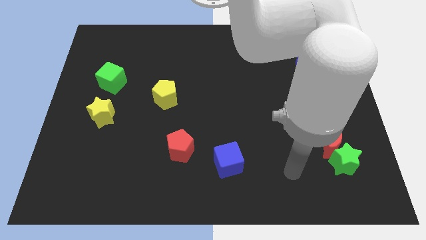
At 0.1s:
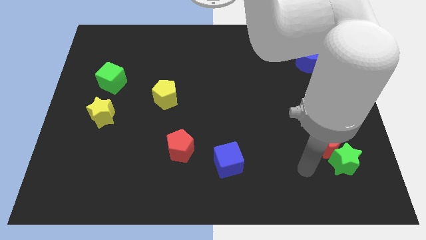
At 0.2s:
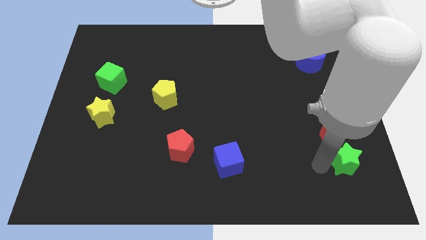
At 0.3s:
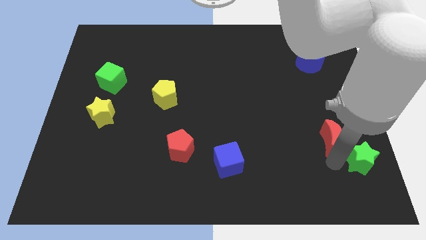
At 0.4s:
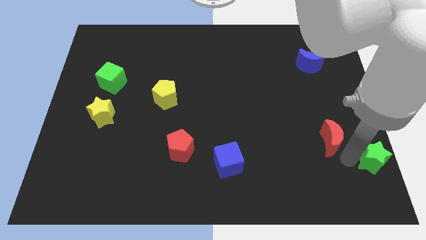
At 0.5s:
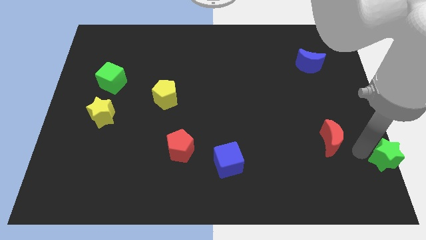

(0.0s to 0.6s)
pull the red moon apart from the green star

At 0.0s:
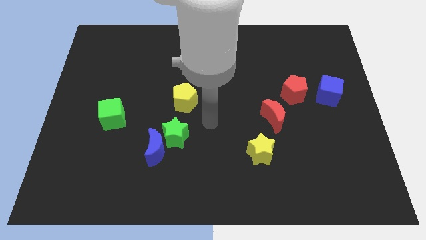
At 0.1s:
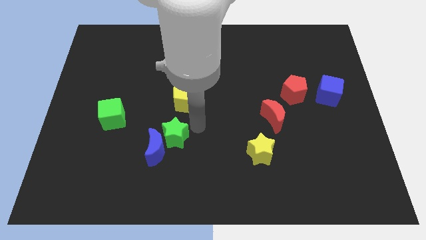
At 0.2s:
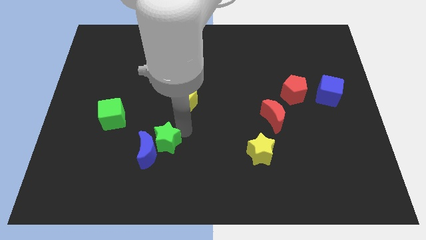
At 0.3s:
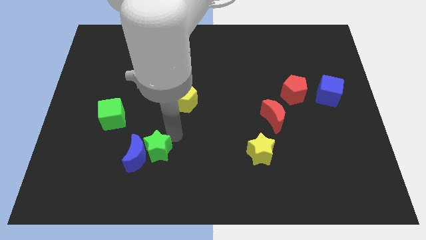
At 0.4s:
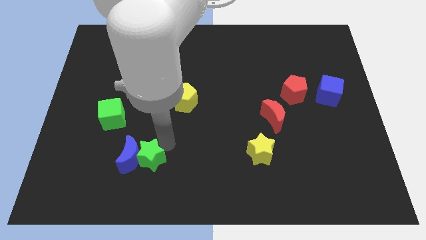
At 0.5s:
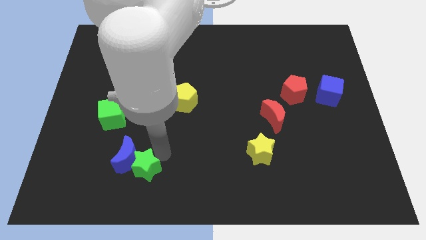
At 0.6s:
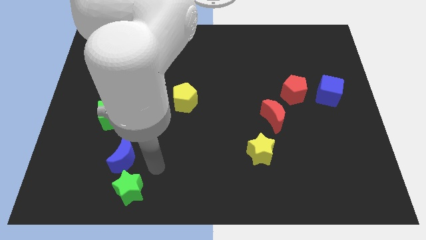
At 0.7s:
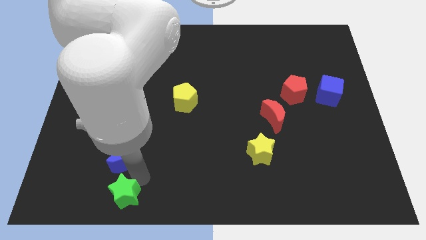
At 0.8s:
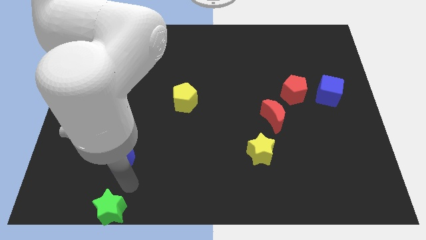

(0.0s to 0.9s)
move the blue moon away from the green star

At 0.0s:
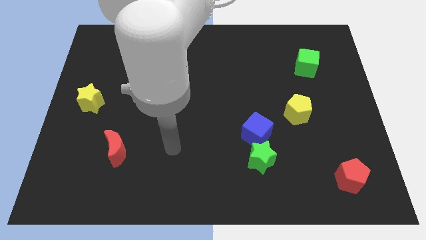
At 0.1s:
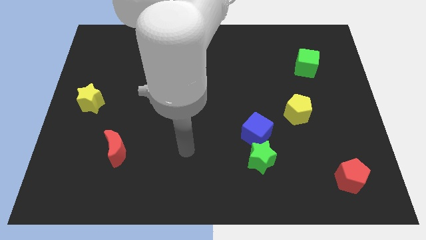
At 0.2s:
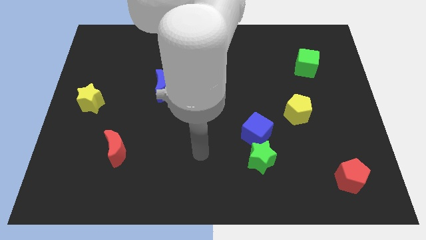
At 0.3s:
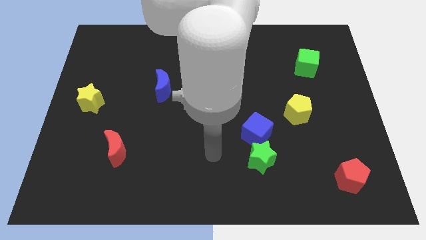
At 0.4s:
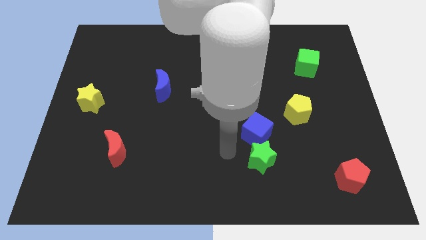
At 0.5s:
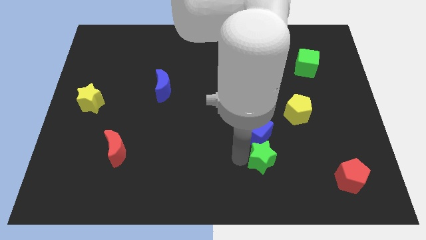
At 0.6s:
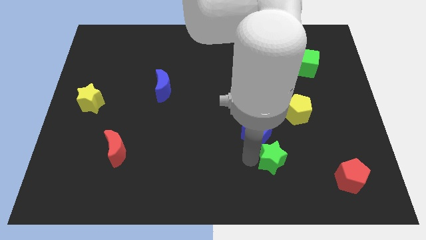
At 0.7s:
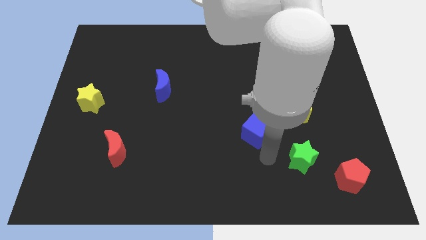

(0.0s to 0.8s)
pull the blue cube apart from the green star

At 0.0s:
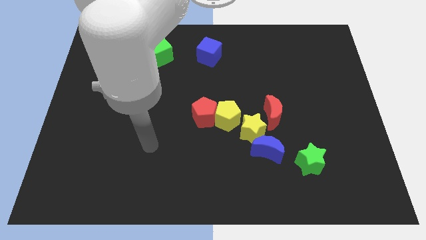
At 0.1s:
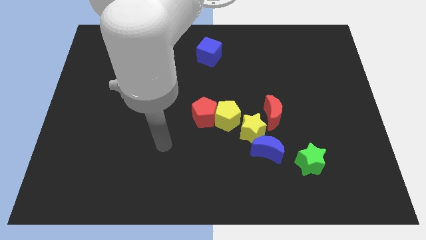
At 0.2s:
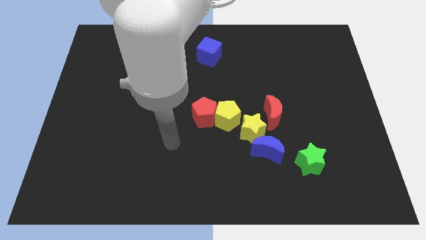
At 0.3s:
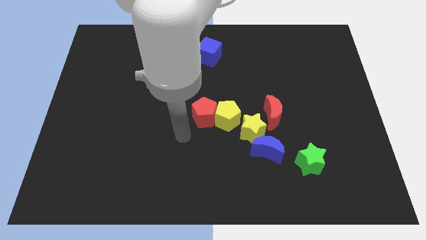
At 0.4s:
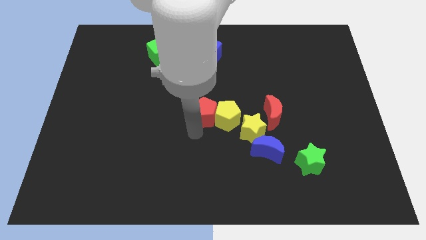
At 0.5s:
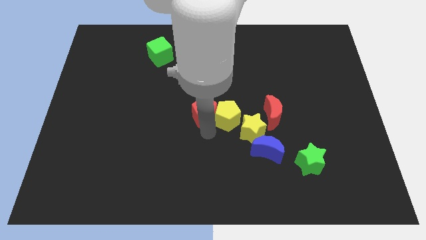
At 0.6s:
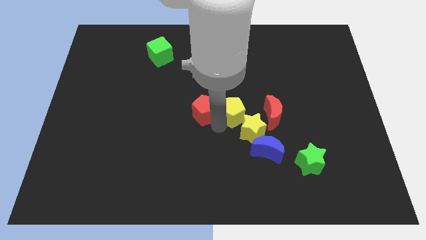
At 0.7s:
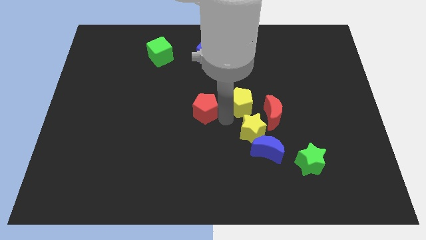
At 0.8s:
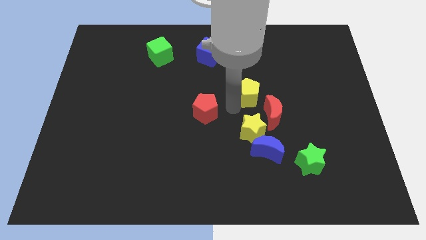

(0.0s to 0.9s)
separate the red pentagon from the yellow pentagon

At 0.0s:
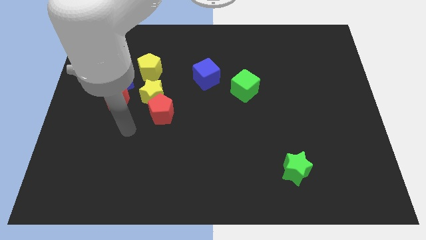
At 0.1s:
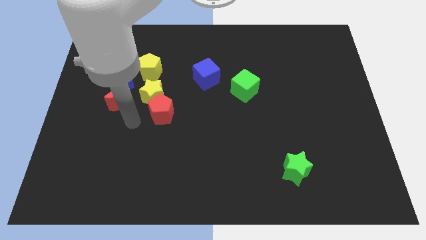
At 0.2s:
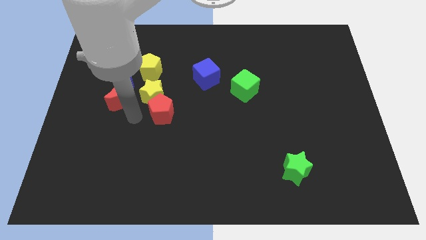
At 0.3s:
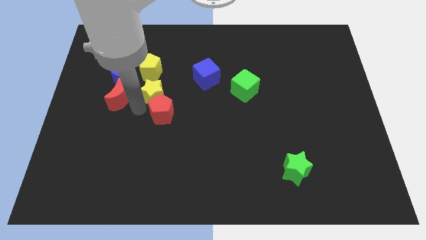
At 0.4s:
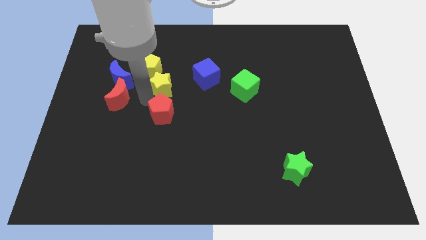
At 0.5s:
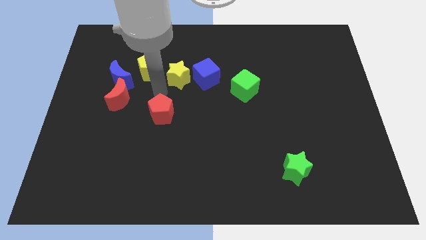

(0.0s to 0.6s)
move the red pentagon away from the yellow star

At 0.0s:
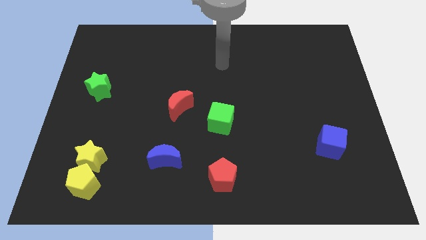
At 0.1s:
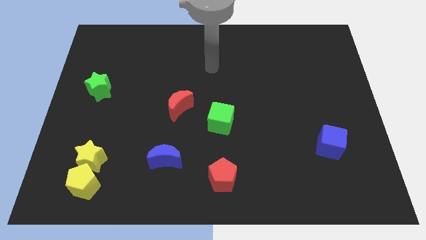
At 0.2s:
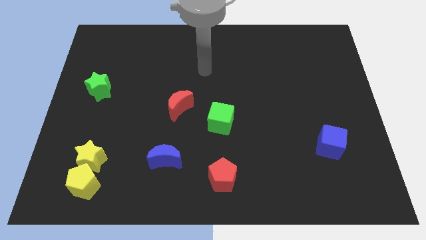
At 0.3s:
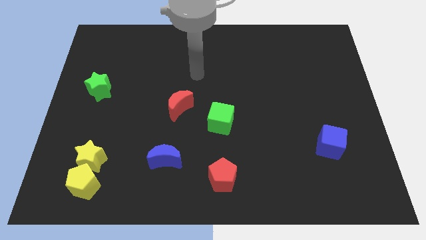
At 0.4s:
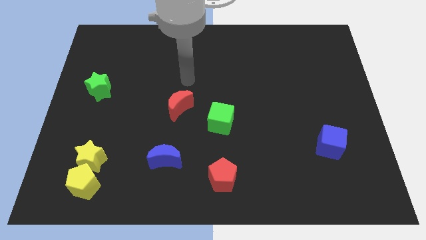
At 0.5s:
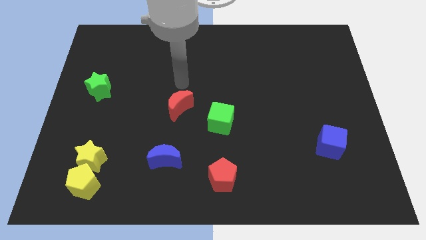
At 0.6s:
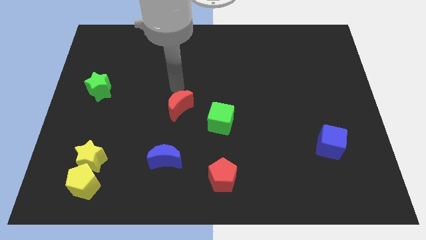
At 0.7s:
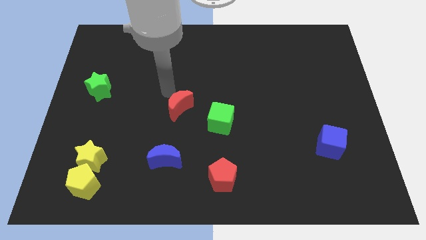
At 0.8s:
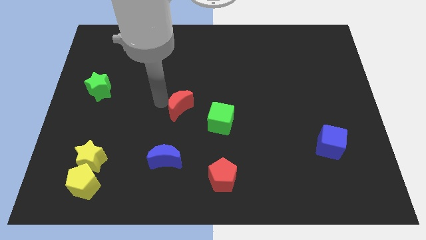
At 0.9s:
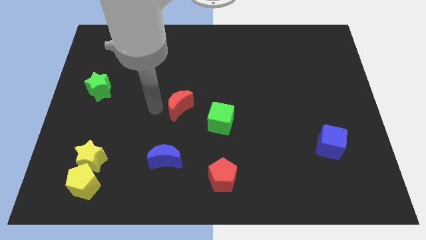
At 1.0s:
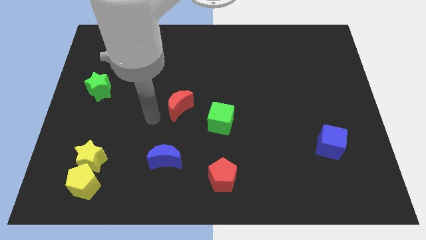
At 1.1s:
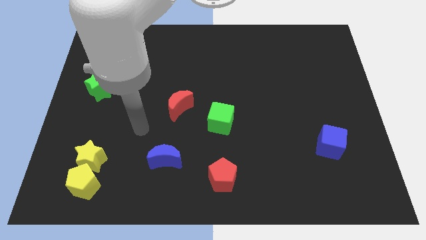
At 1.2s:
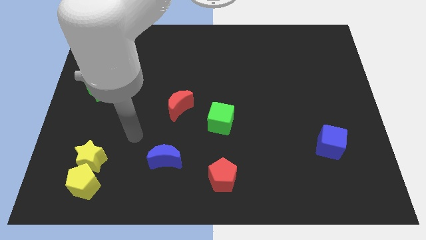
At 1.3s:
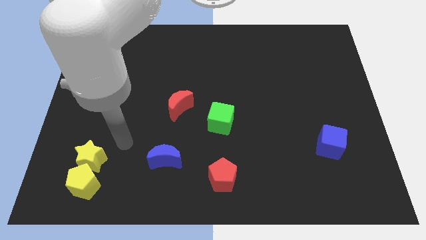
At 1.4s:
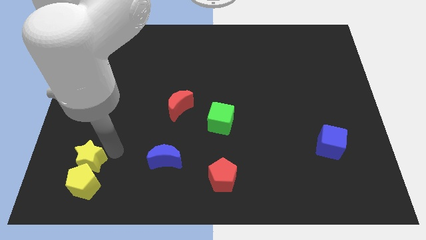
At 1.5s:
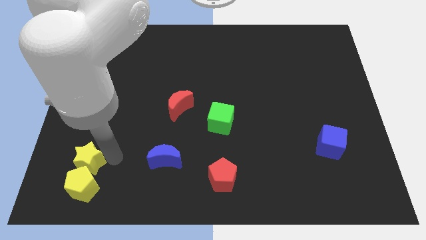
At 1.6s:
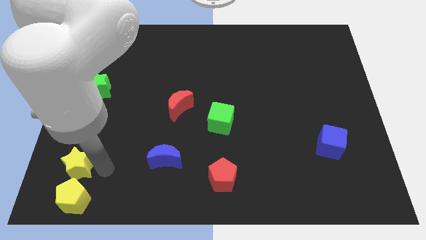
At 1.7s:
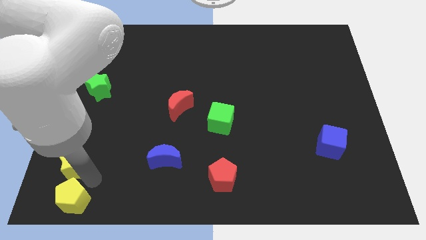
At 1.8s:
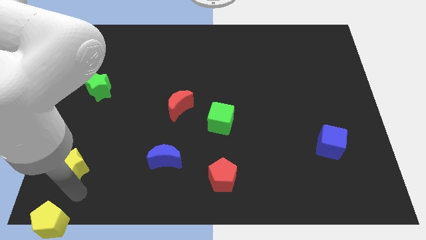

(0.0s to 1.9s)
separate the yellow star from the yellow pentagon

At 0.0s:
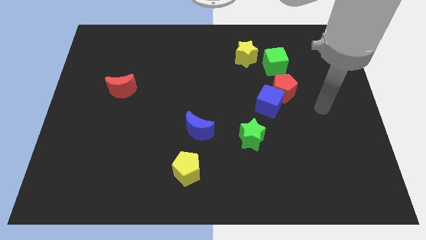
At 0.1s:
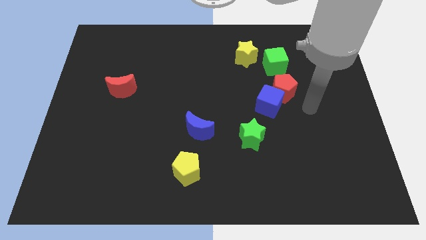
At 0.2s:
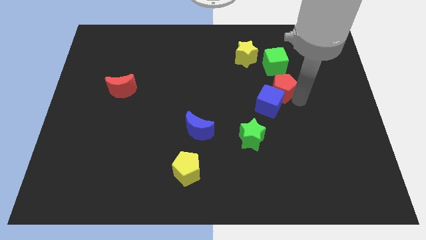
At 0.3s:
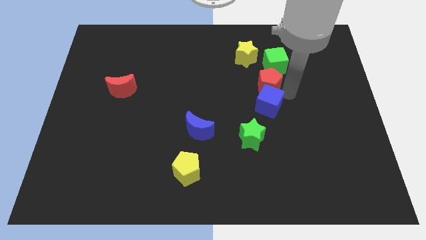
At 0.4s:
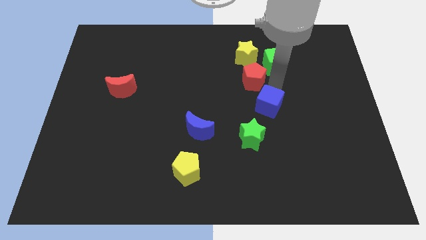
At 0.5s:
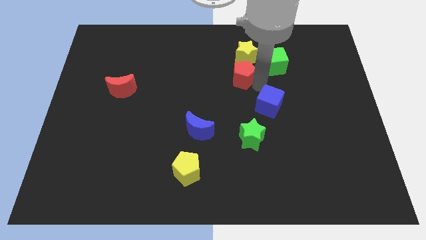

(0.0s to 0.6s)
separate the blue cube from the red pentagon

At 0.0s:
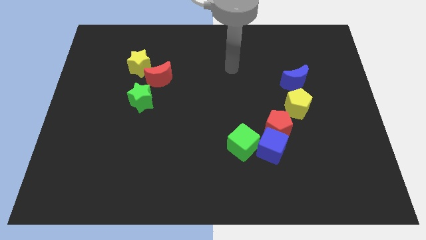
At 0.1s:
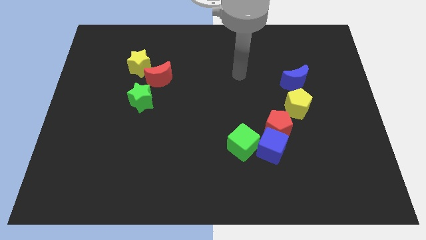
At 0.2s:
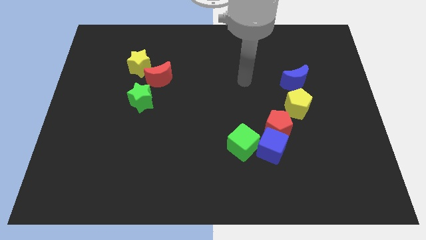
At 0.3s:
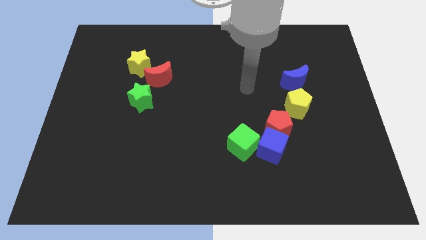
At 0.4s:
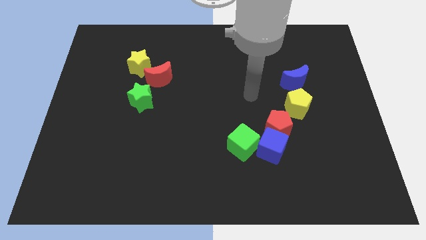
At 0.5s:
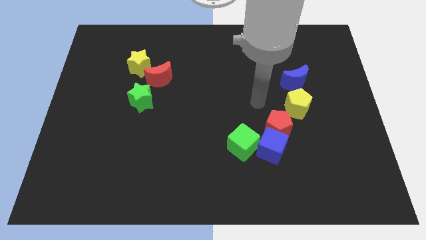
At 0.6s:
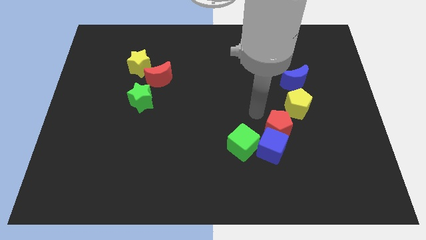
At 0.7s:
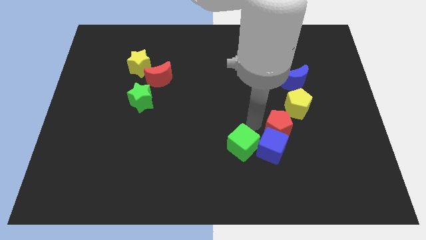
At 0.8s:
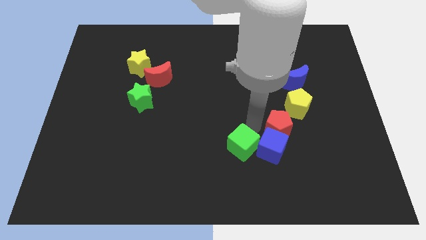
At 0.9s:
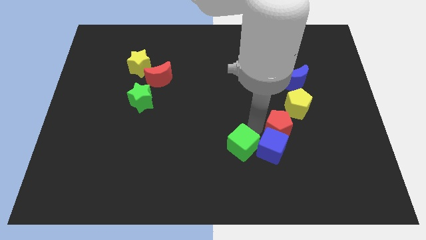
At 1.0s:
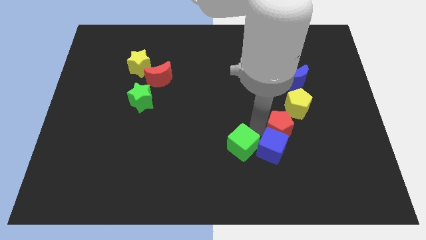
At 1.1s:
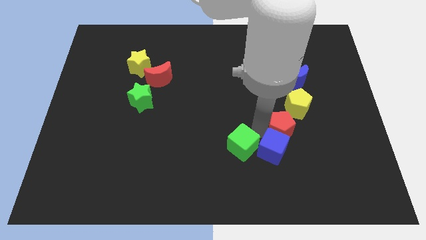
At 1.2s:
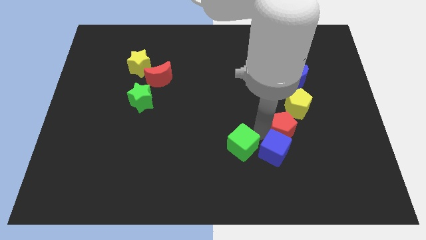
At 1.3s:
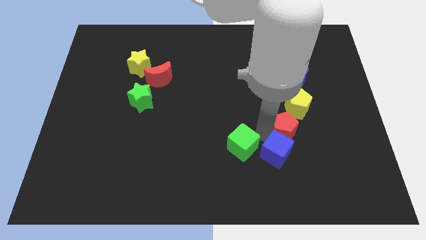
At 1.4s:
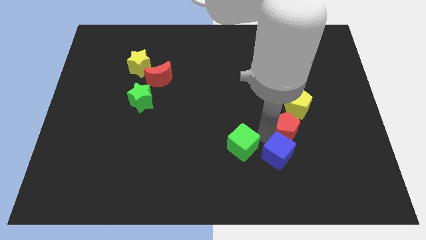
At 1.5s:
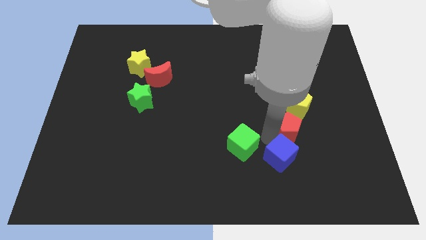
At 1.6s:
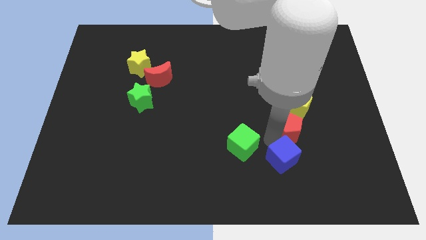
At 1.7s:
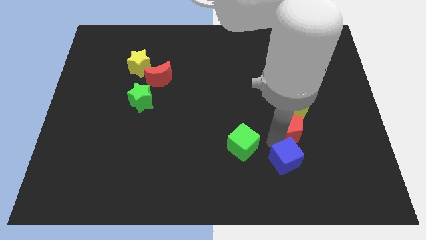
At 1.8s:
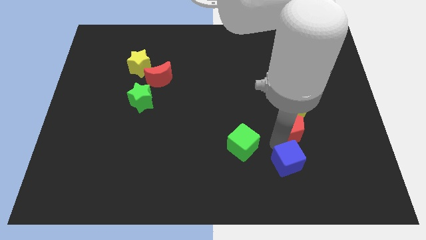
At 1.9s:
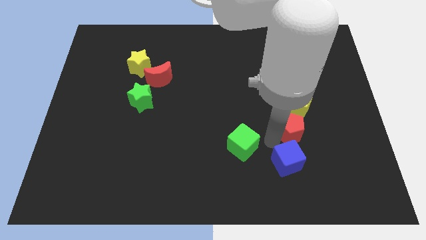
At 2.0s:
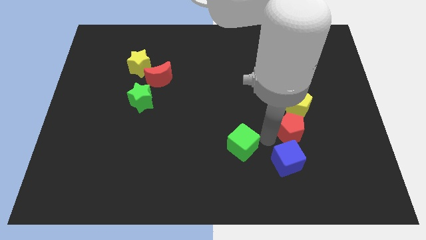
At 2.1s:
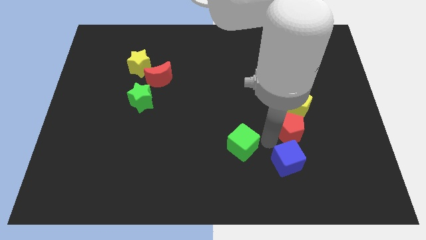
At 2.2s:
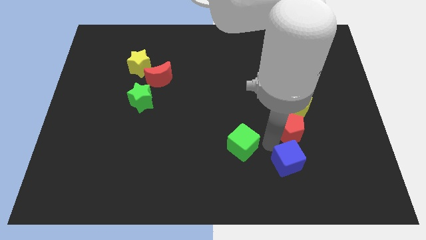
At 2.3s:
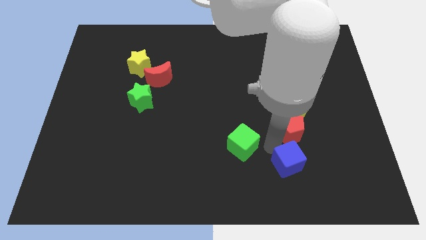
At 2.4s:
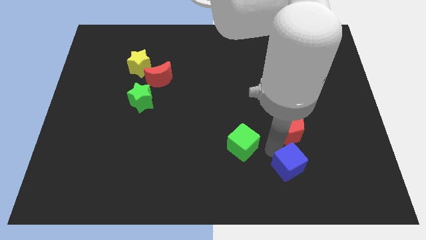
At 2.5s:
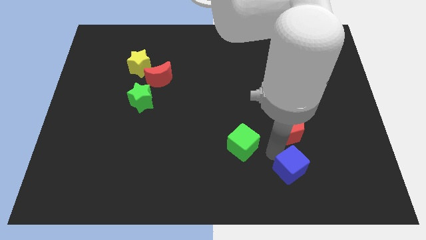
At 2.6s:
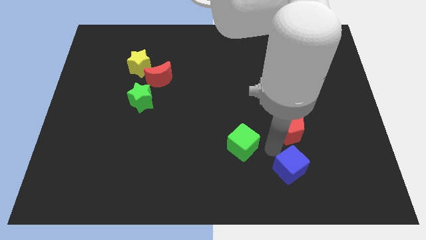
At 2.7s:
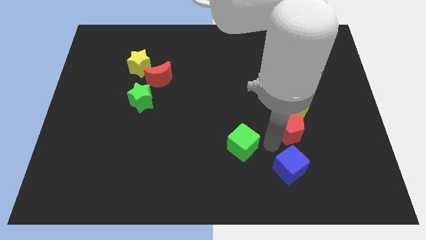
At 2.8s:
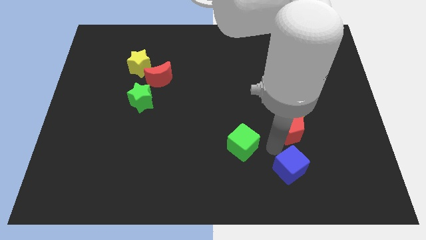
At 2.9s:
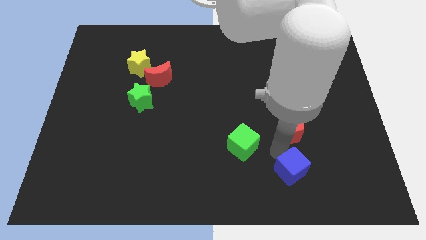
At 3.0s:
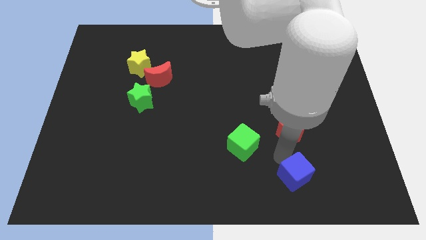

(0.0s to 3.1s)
separate the blue cube from the red pentagon and green cube
